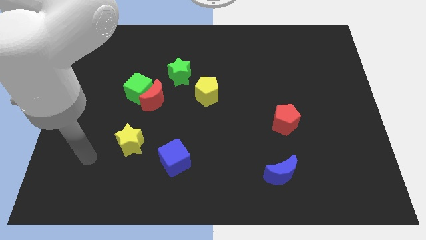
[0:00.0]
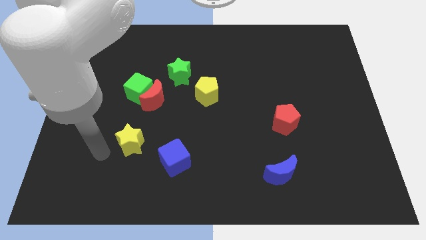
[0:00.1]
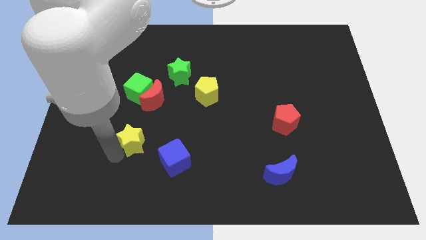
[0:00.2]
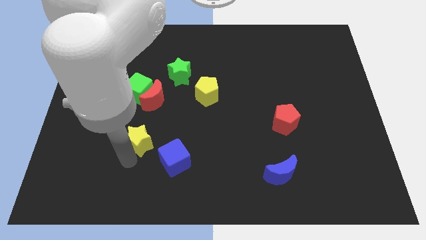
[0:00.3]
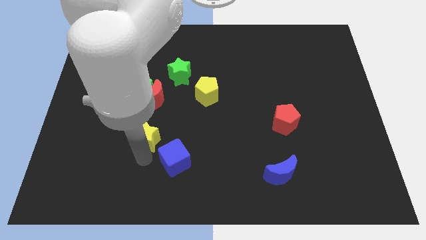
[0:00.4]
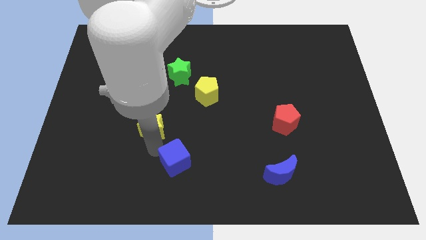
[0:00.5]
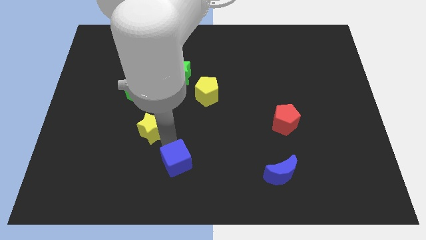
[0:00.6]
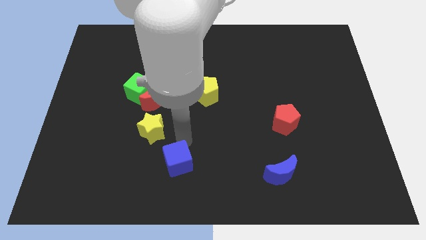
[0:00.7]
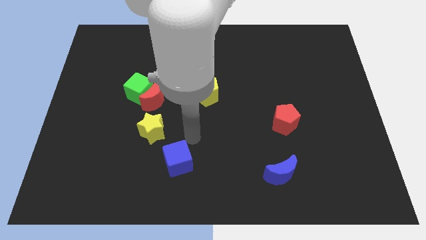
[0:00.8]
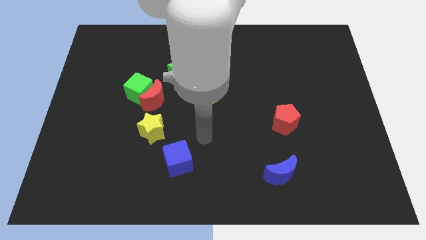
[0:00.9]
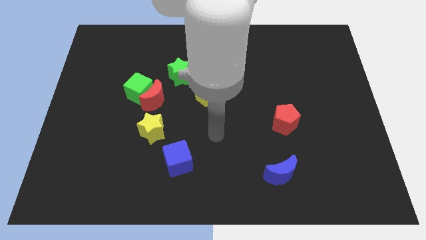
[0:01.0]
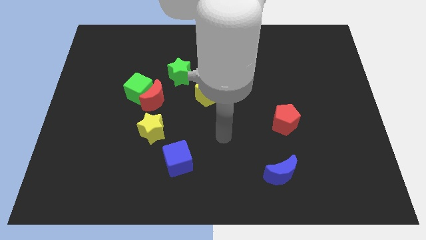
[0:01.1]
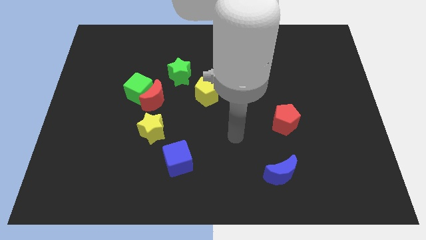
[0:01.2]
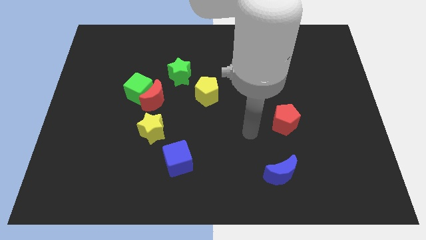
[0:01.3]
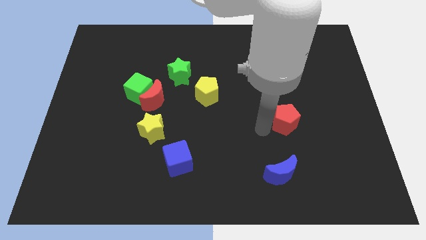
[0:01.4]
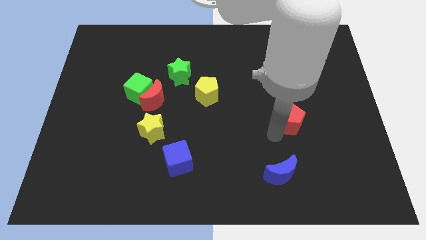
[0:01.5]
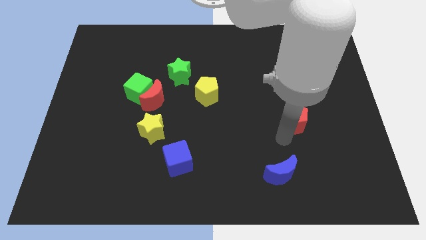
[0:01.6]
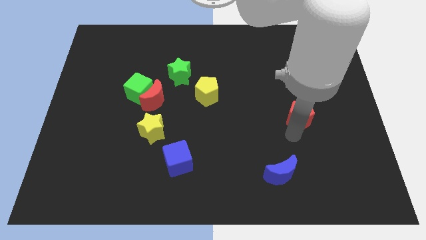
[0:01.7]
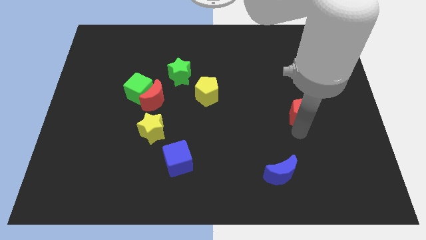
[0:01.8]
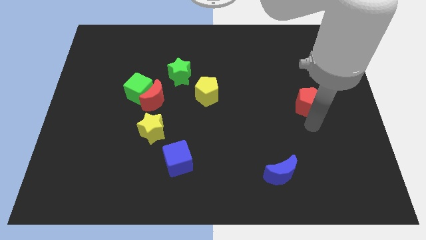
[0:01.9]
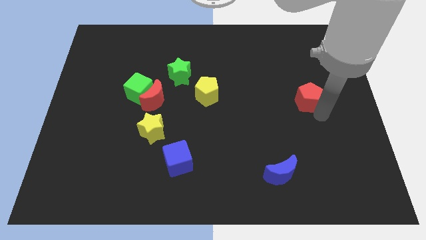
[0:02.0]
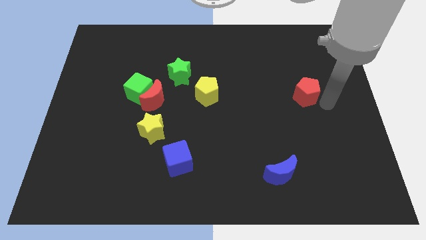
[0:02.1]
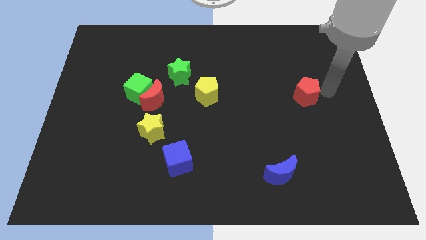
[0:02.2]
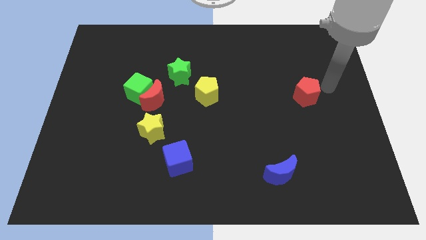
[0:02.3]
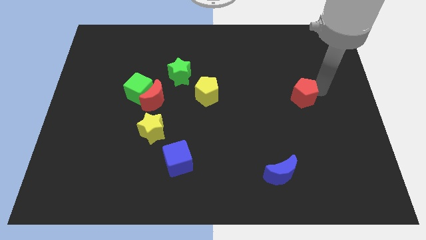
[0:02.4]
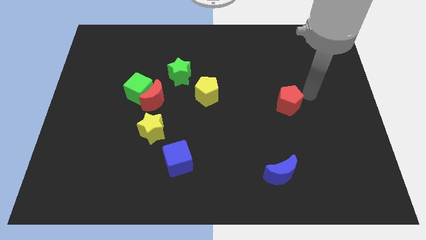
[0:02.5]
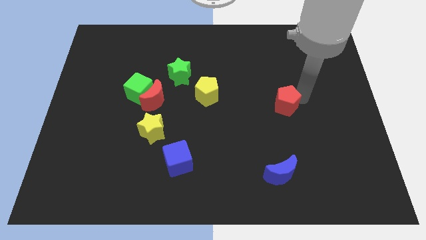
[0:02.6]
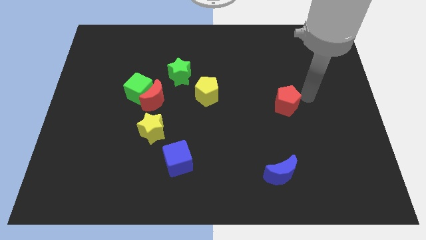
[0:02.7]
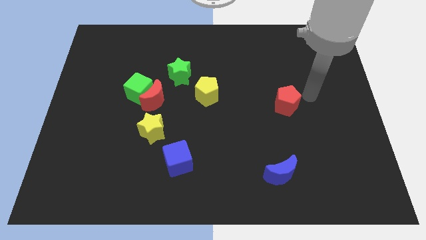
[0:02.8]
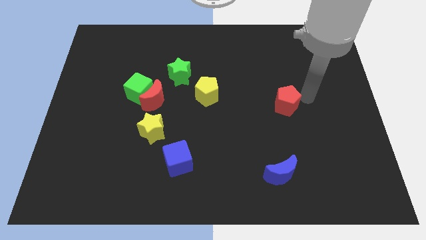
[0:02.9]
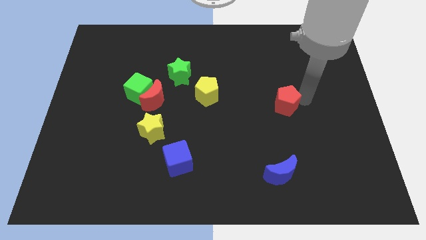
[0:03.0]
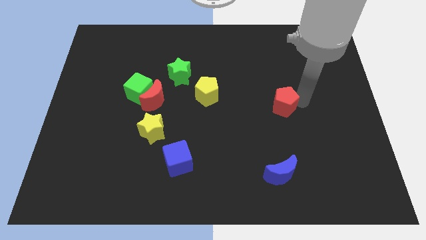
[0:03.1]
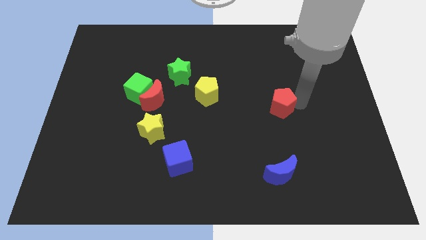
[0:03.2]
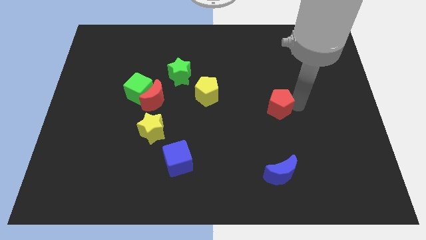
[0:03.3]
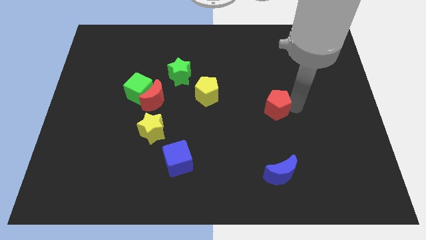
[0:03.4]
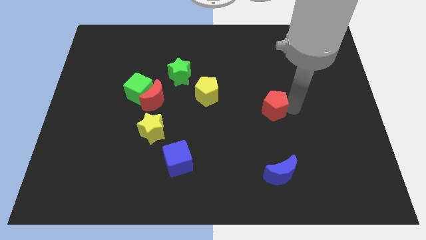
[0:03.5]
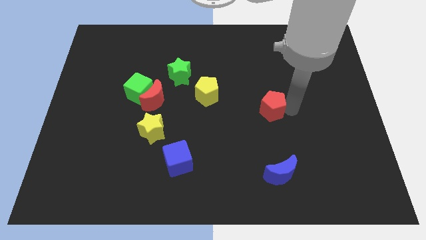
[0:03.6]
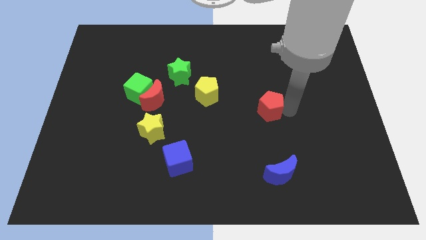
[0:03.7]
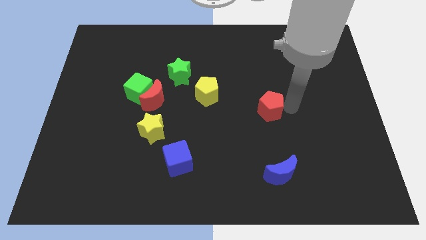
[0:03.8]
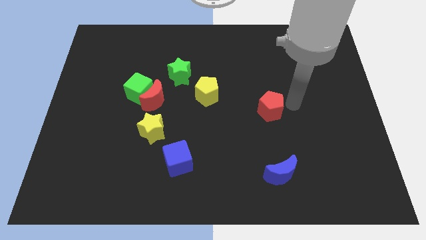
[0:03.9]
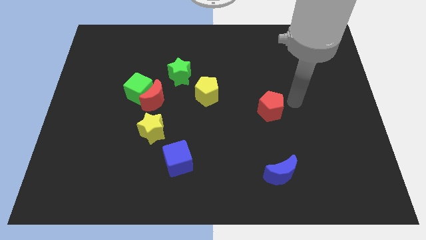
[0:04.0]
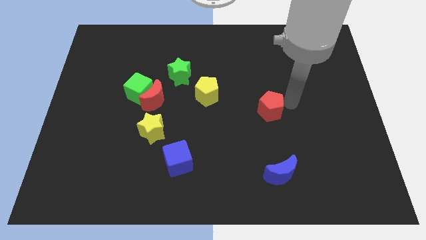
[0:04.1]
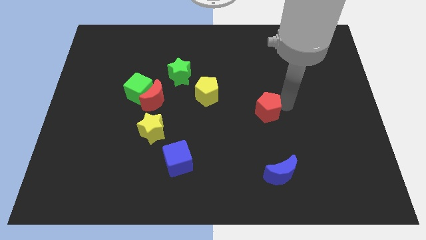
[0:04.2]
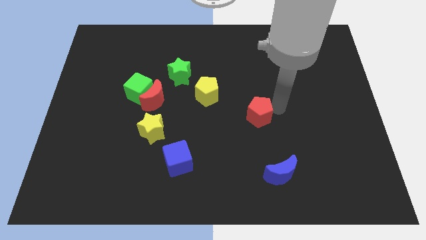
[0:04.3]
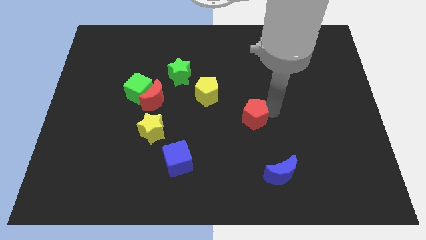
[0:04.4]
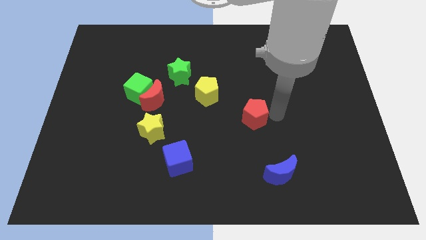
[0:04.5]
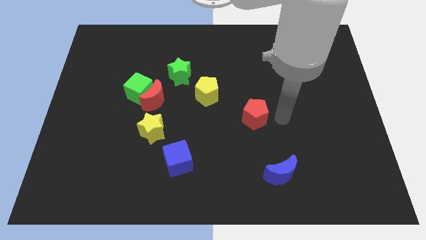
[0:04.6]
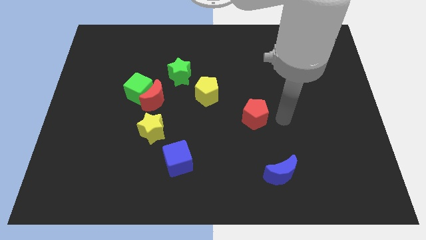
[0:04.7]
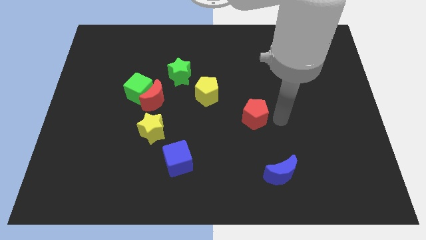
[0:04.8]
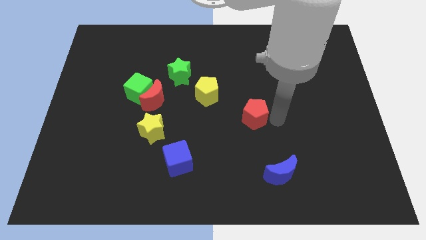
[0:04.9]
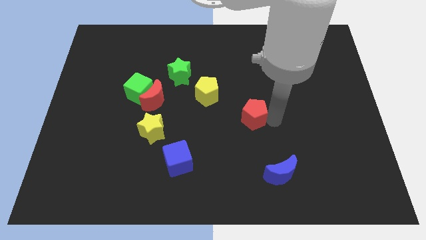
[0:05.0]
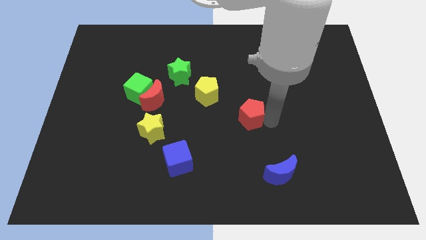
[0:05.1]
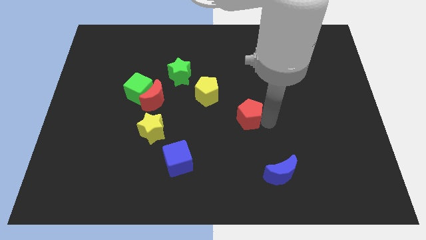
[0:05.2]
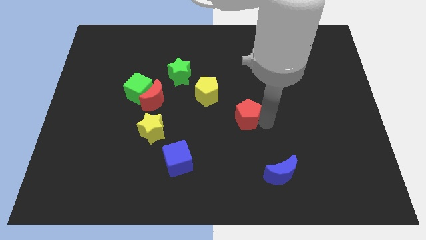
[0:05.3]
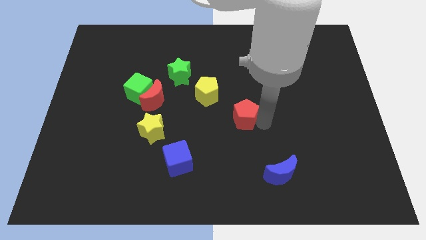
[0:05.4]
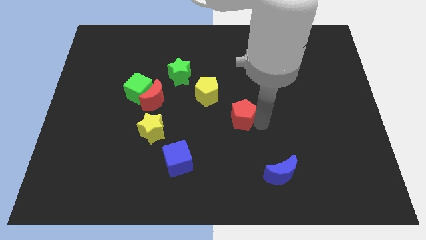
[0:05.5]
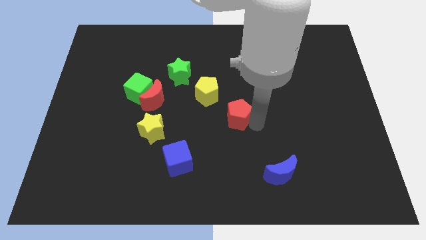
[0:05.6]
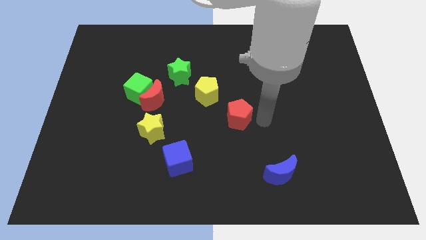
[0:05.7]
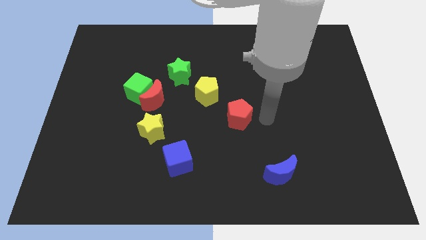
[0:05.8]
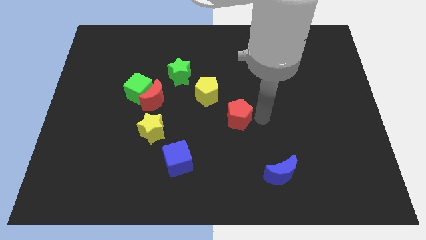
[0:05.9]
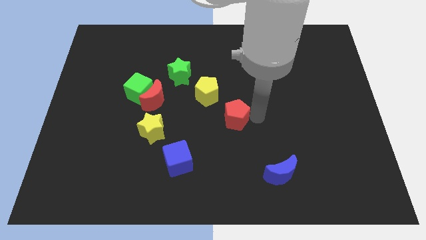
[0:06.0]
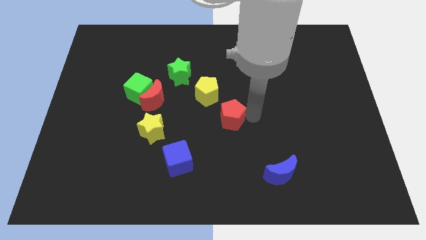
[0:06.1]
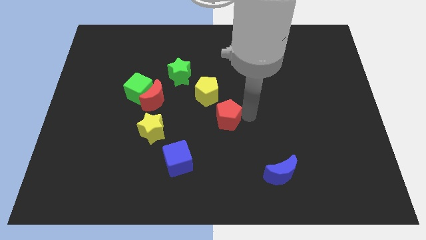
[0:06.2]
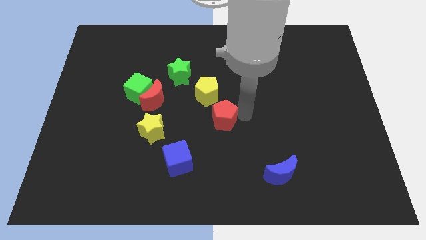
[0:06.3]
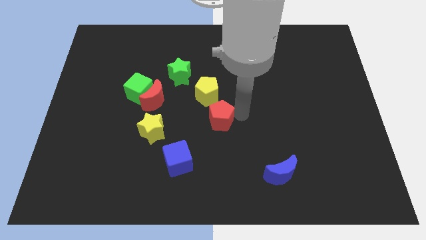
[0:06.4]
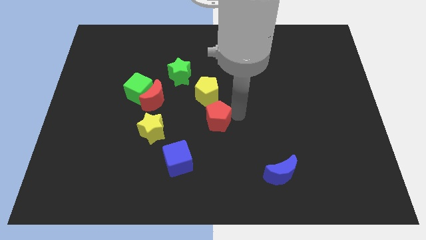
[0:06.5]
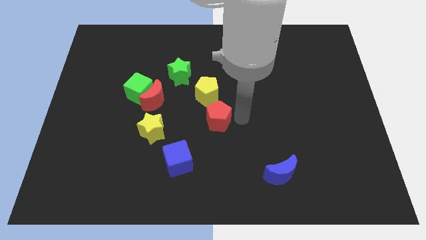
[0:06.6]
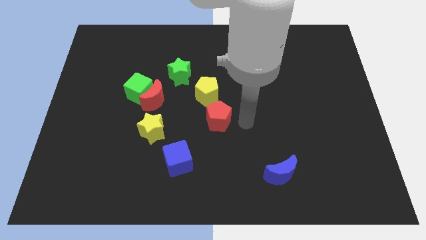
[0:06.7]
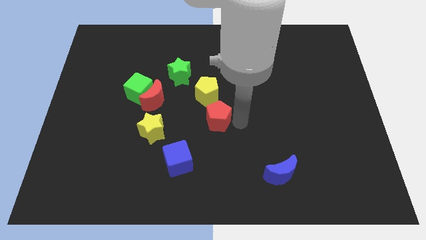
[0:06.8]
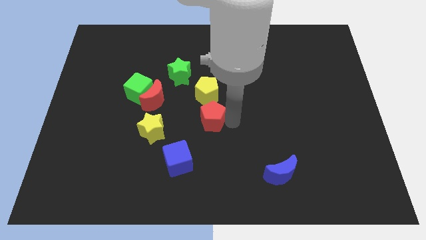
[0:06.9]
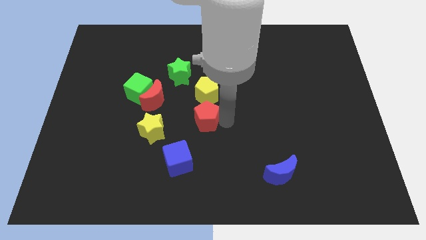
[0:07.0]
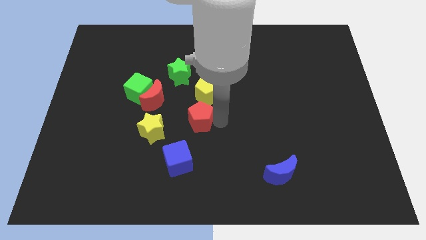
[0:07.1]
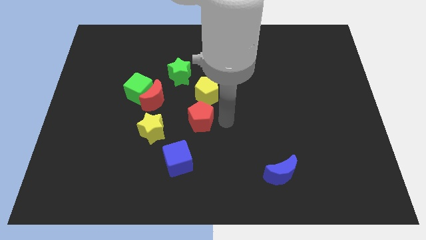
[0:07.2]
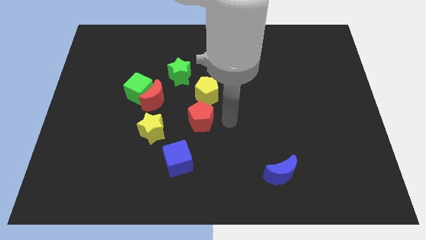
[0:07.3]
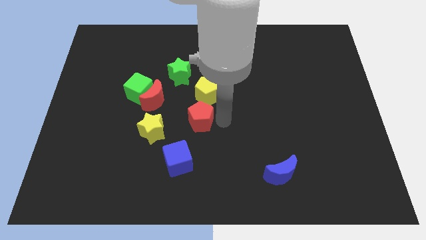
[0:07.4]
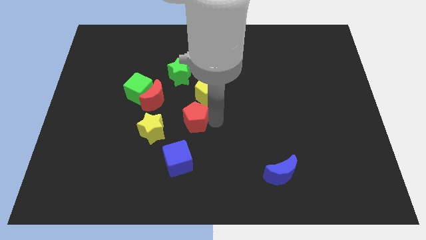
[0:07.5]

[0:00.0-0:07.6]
slide the red pentagon to the left

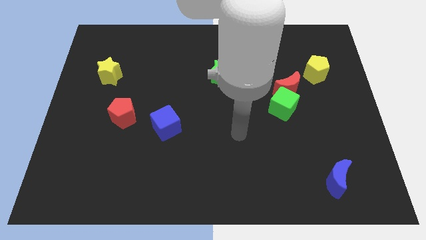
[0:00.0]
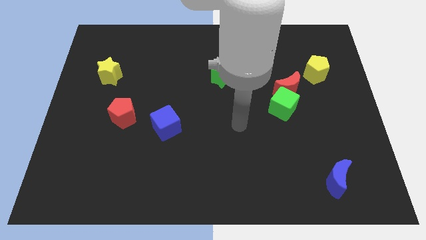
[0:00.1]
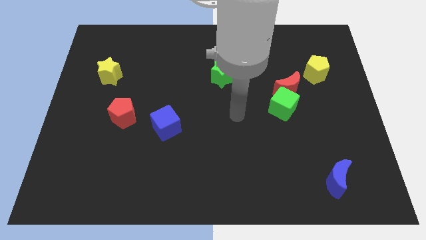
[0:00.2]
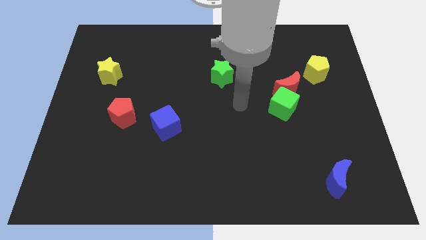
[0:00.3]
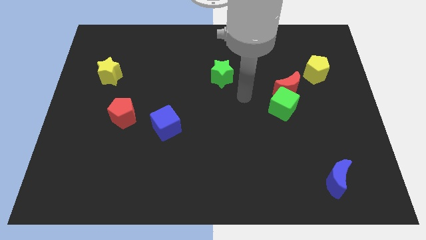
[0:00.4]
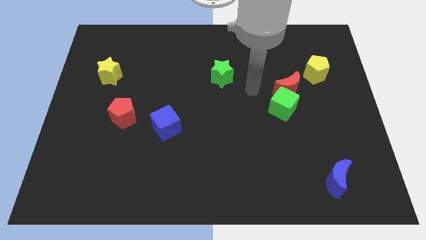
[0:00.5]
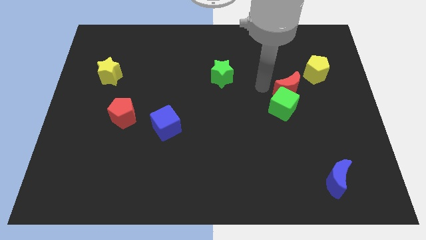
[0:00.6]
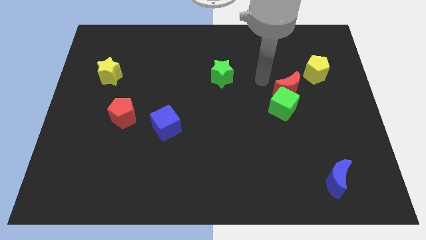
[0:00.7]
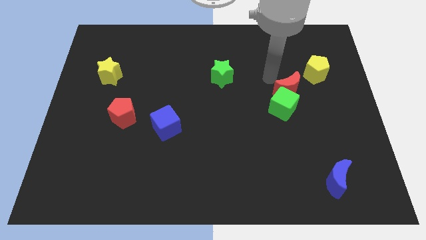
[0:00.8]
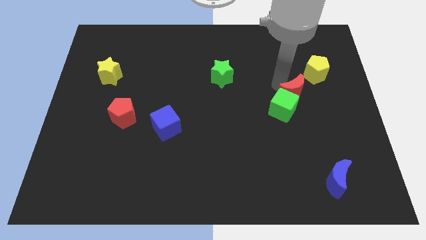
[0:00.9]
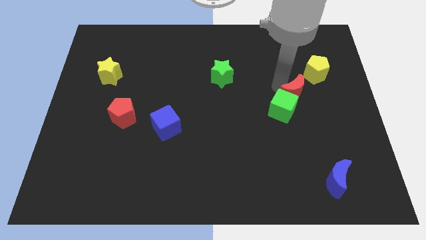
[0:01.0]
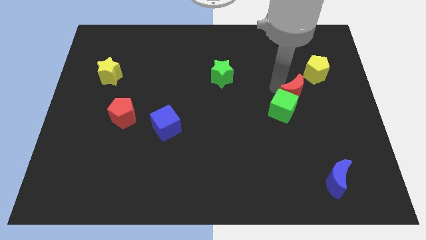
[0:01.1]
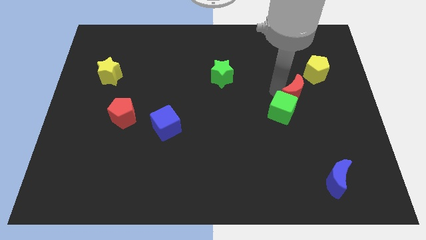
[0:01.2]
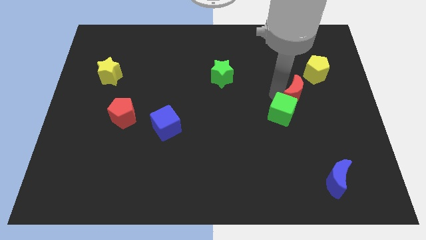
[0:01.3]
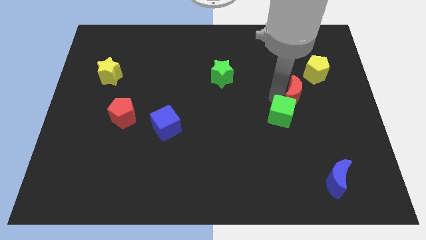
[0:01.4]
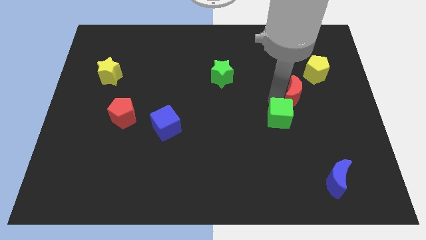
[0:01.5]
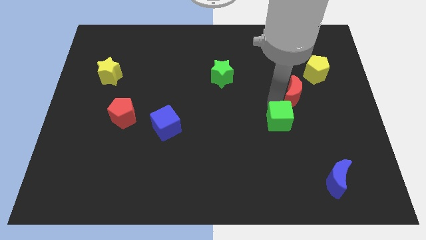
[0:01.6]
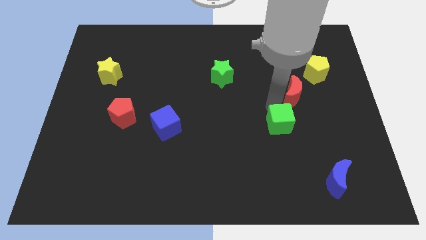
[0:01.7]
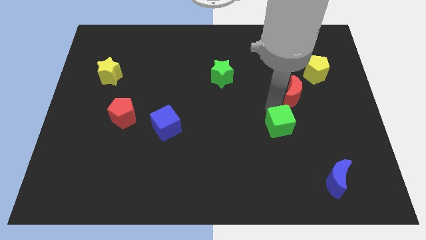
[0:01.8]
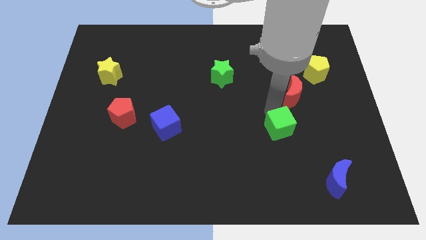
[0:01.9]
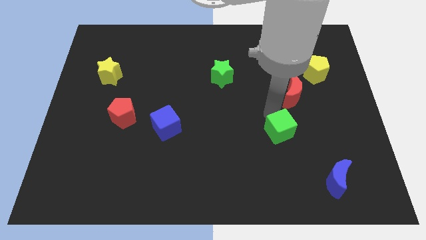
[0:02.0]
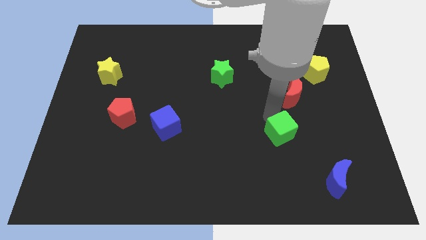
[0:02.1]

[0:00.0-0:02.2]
slightly push the green cube down
